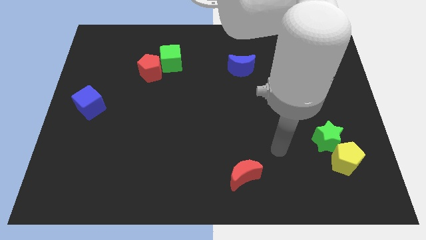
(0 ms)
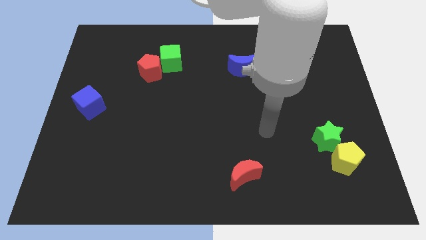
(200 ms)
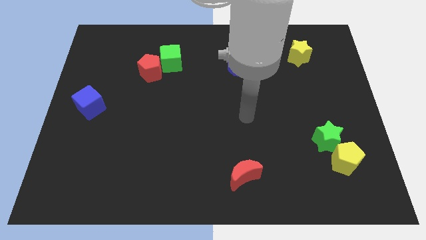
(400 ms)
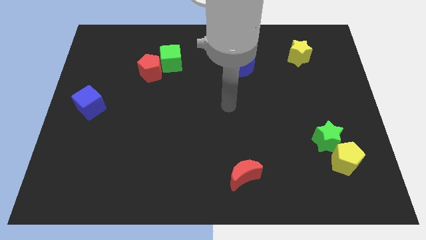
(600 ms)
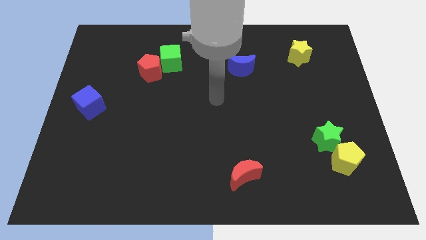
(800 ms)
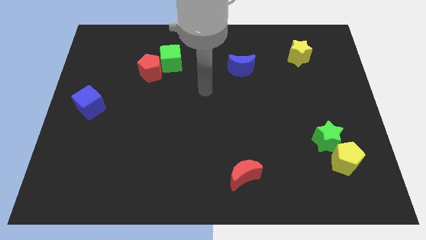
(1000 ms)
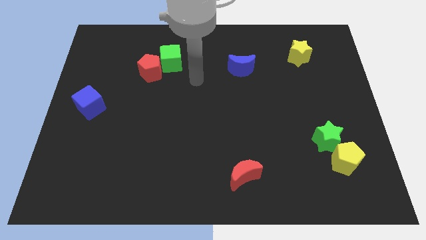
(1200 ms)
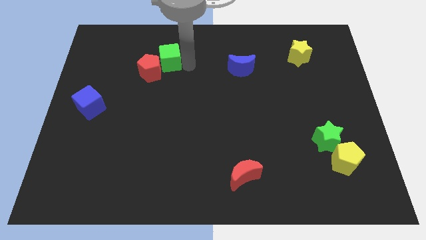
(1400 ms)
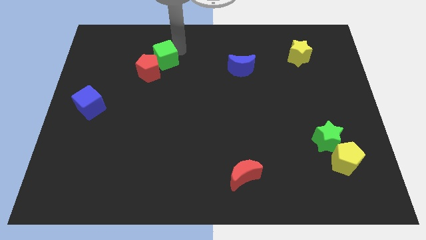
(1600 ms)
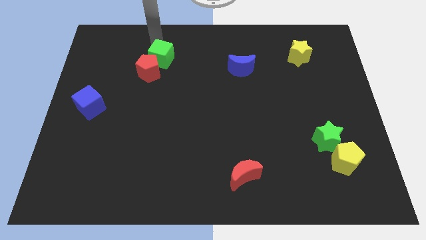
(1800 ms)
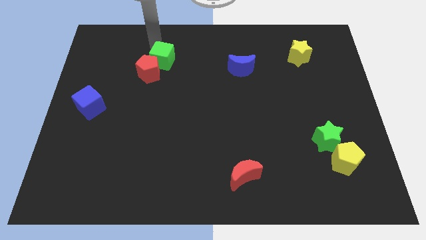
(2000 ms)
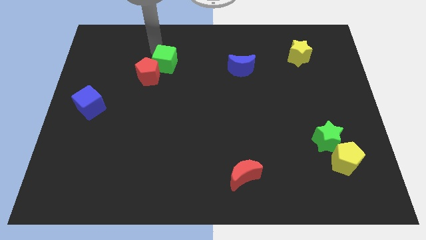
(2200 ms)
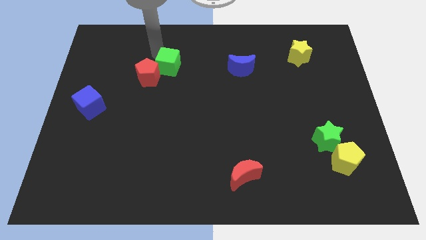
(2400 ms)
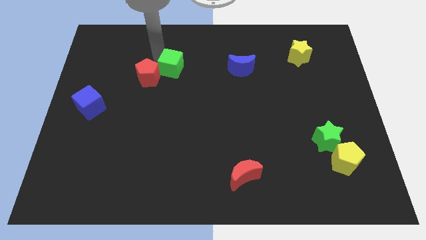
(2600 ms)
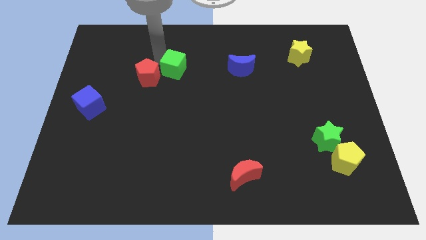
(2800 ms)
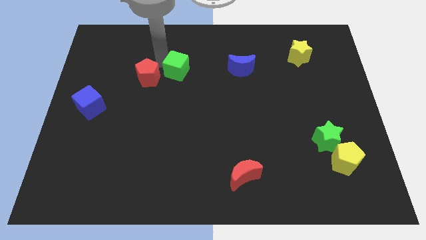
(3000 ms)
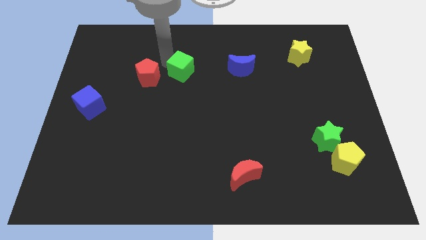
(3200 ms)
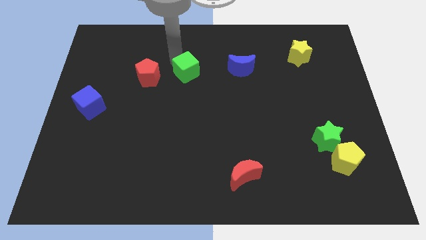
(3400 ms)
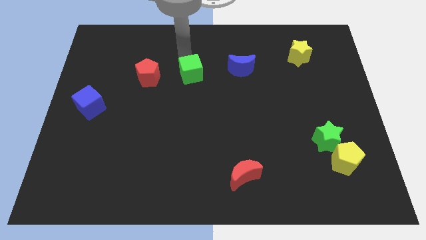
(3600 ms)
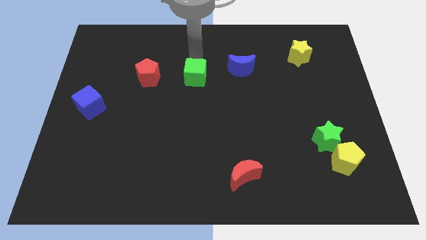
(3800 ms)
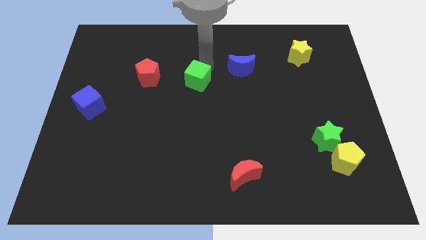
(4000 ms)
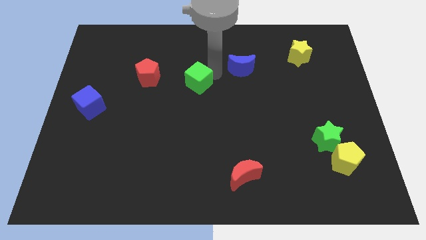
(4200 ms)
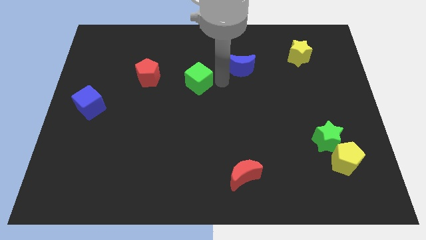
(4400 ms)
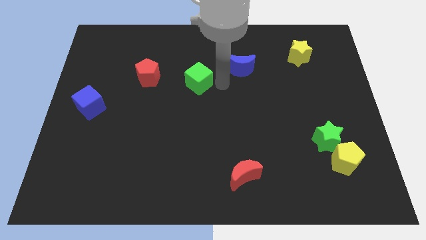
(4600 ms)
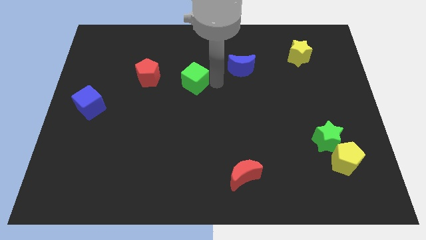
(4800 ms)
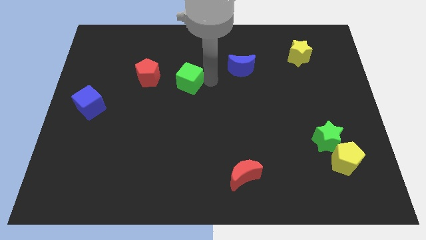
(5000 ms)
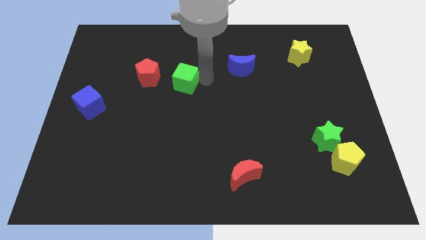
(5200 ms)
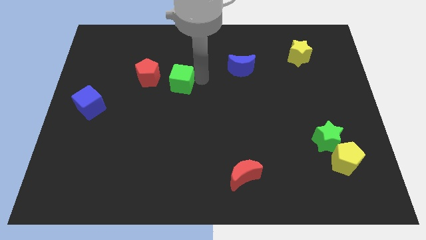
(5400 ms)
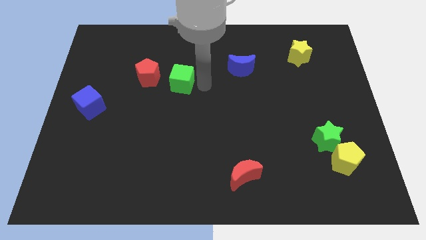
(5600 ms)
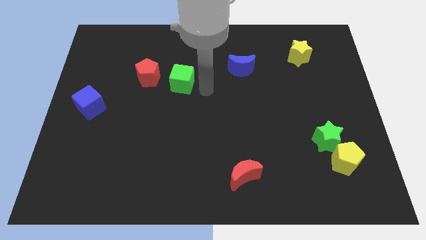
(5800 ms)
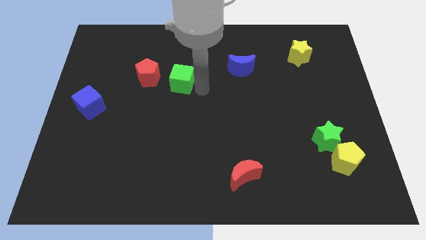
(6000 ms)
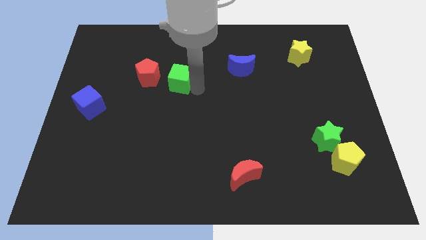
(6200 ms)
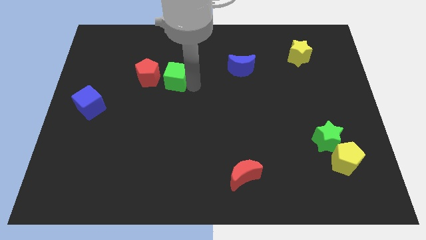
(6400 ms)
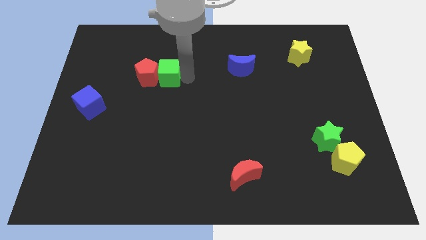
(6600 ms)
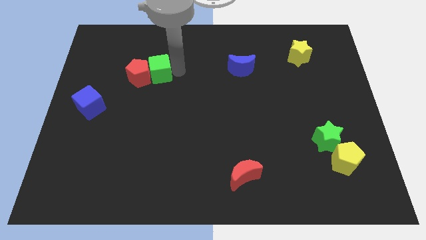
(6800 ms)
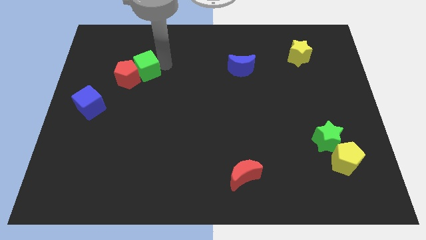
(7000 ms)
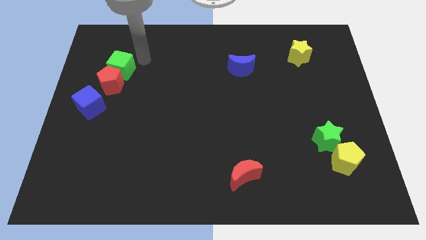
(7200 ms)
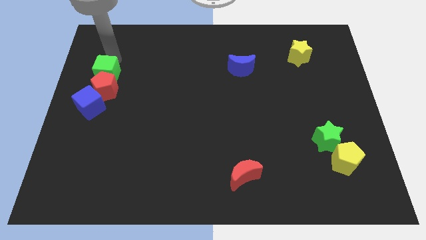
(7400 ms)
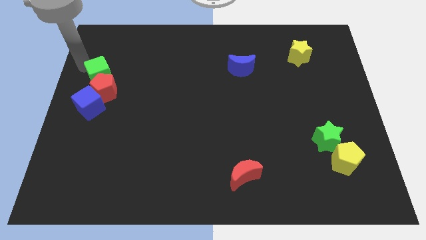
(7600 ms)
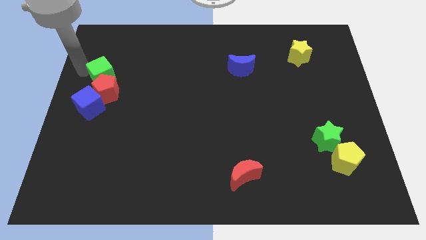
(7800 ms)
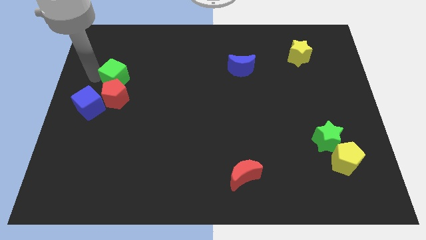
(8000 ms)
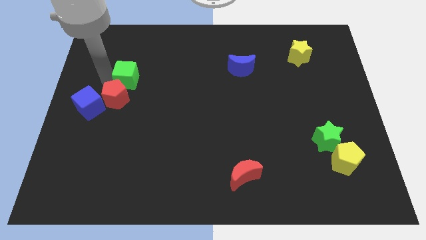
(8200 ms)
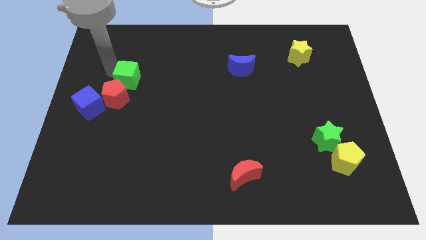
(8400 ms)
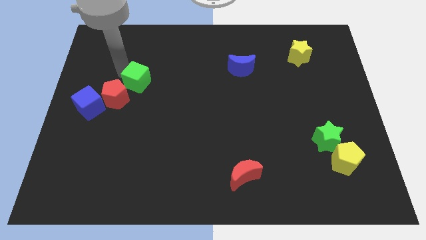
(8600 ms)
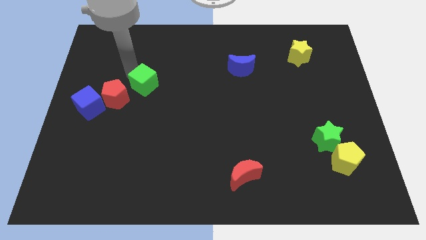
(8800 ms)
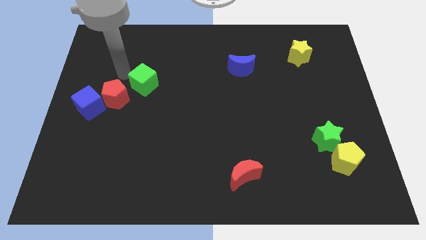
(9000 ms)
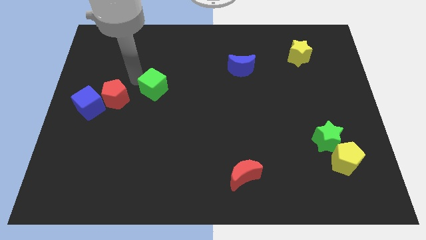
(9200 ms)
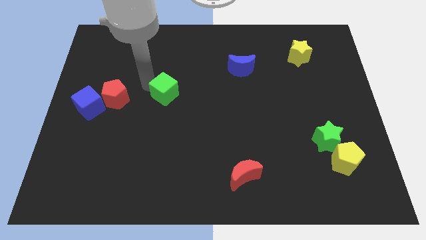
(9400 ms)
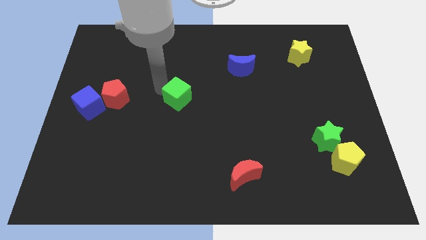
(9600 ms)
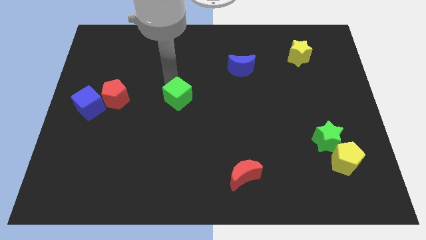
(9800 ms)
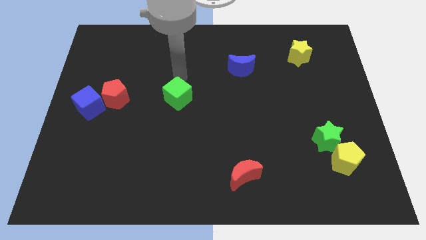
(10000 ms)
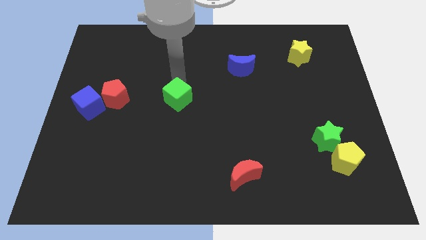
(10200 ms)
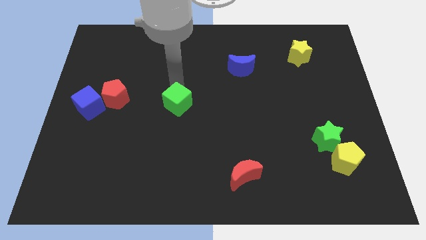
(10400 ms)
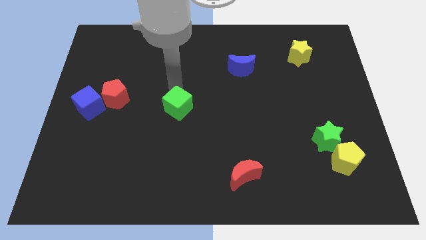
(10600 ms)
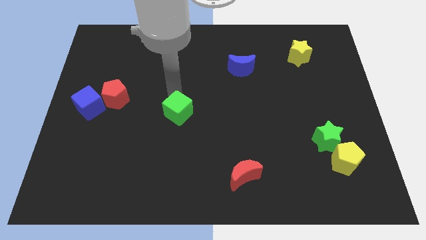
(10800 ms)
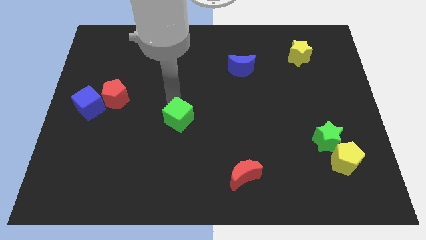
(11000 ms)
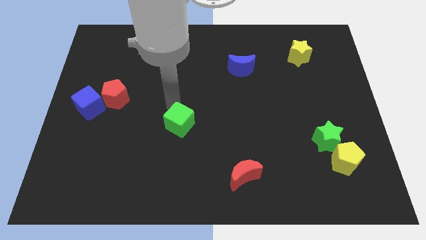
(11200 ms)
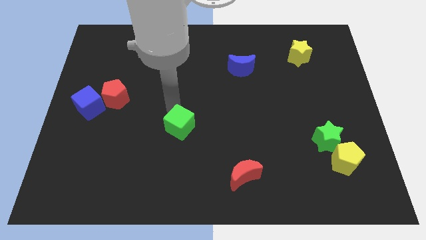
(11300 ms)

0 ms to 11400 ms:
slide the green cube down

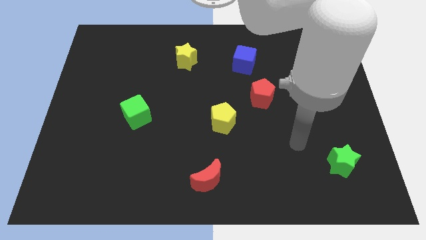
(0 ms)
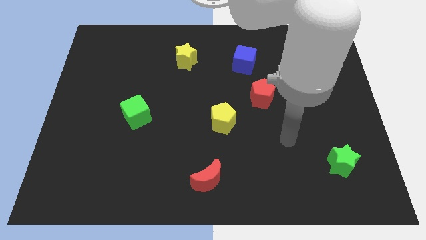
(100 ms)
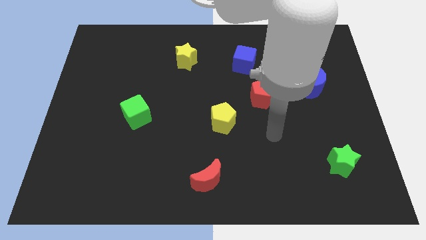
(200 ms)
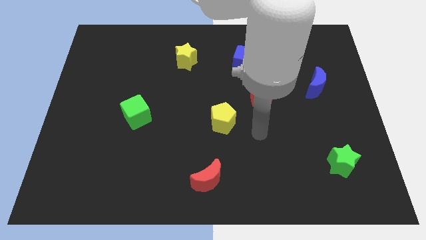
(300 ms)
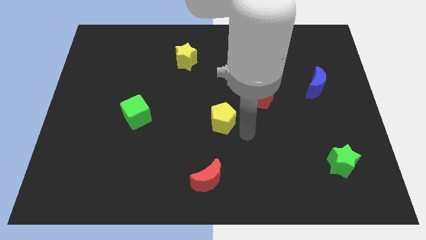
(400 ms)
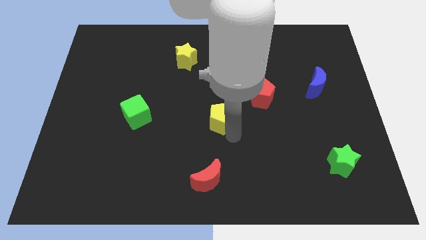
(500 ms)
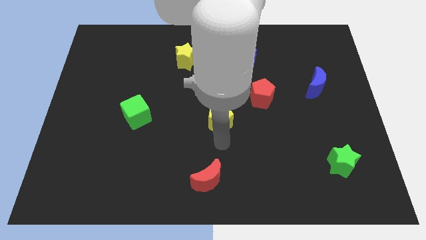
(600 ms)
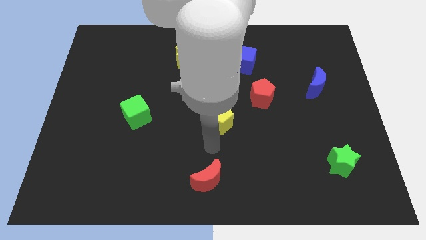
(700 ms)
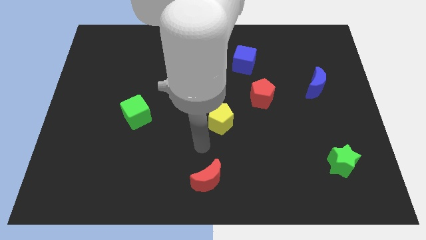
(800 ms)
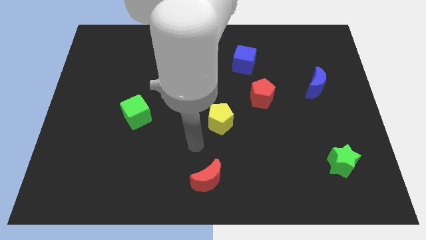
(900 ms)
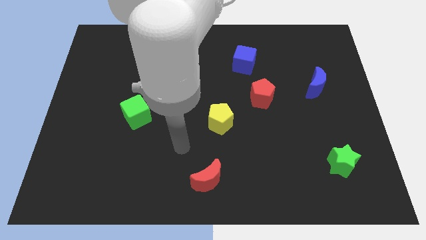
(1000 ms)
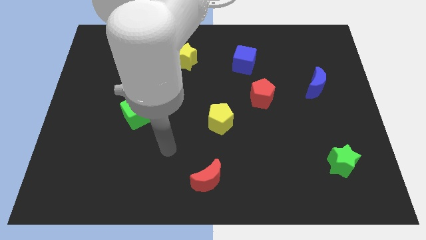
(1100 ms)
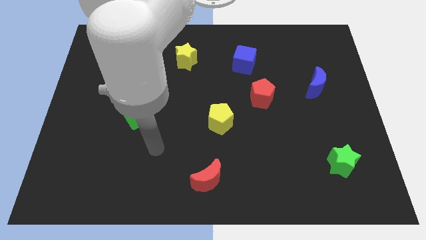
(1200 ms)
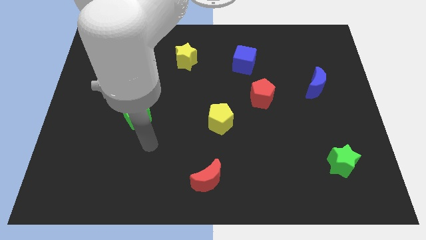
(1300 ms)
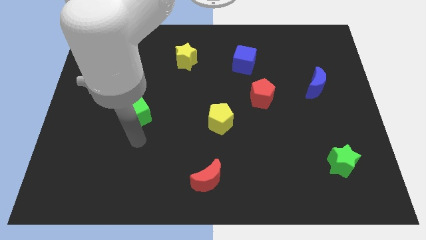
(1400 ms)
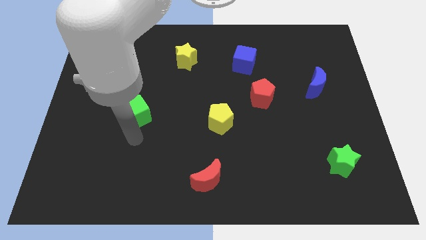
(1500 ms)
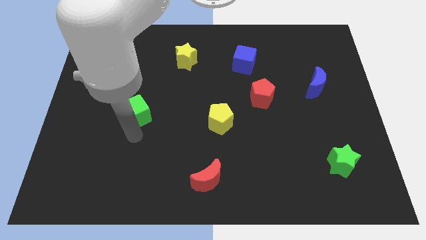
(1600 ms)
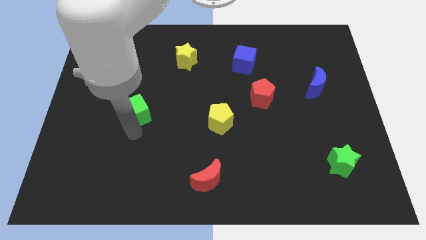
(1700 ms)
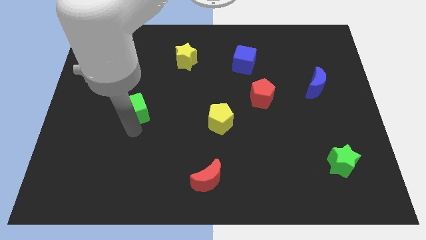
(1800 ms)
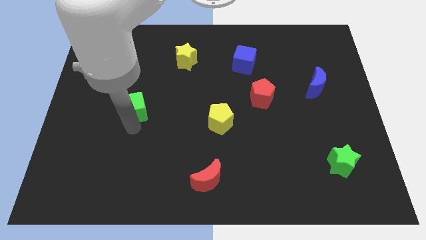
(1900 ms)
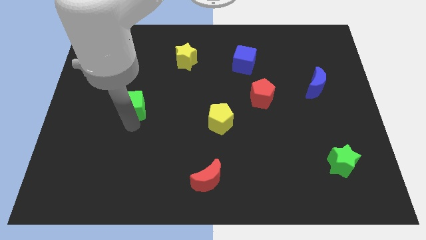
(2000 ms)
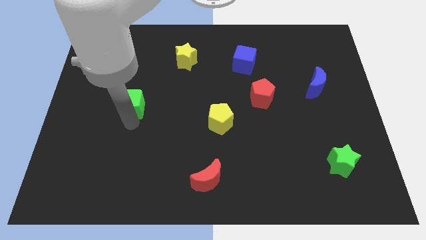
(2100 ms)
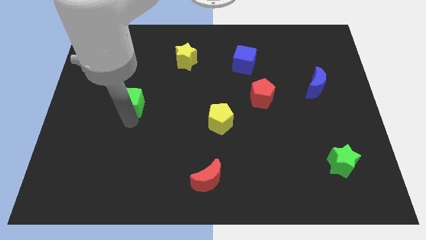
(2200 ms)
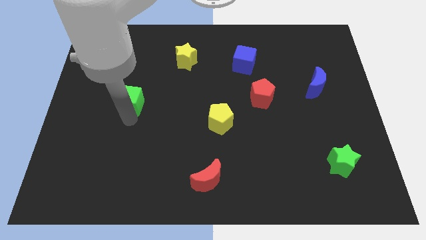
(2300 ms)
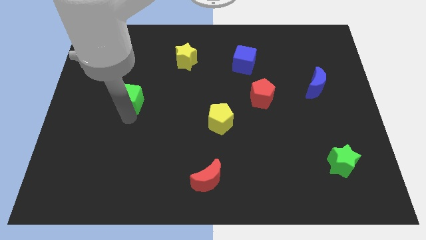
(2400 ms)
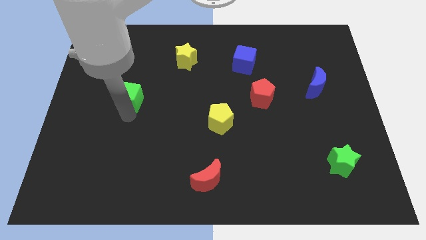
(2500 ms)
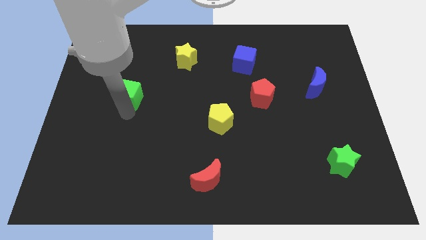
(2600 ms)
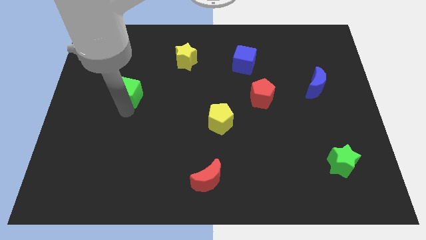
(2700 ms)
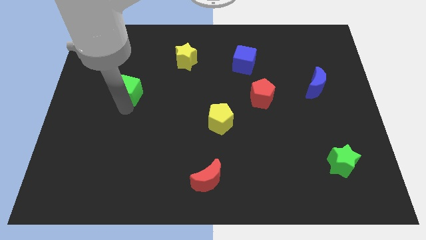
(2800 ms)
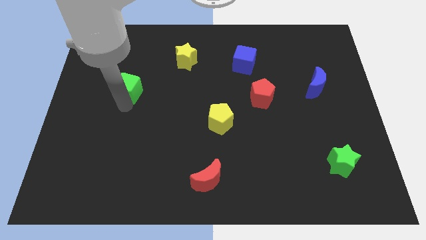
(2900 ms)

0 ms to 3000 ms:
move the green cube a little up
